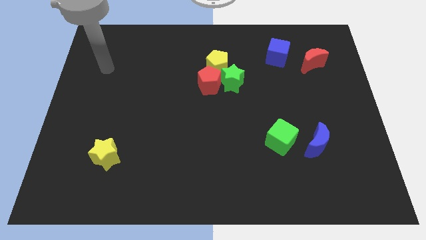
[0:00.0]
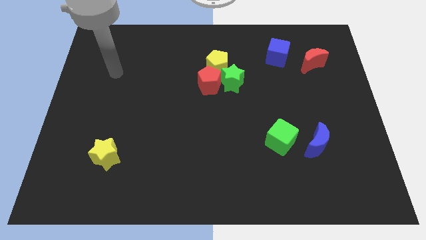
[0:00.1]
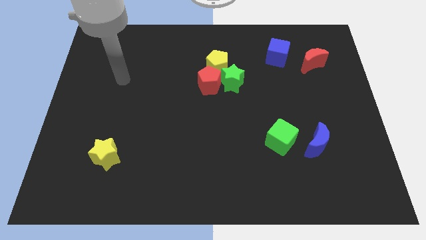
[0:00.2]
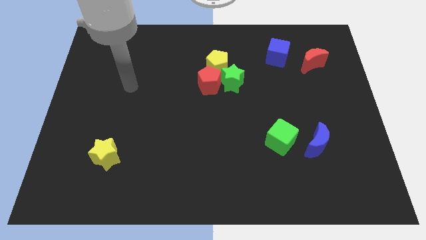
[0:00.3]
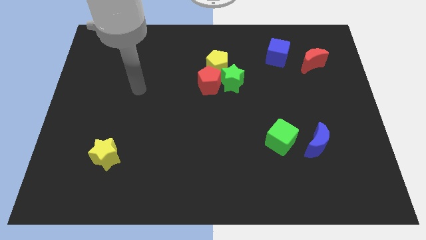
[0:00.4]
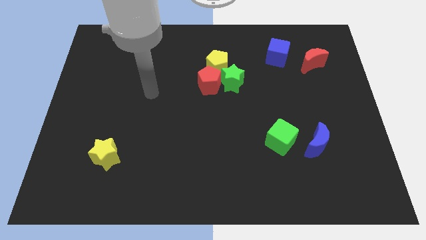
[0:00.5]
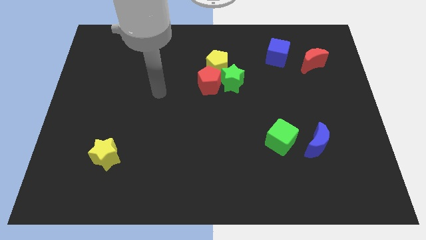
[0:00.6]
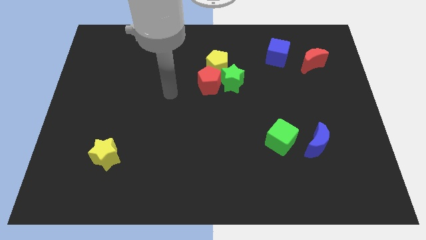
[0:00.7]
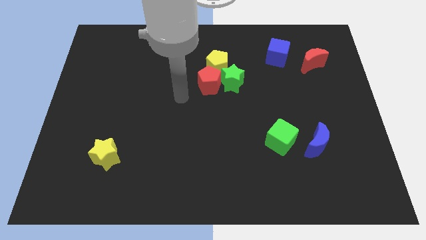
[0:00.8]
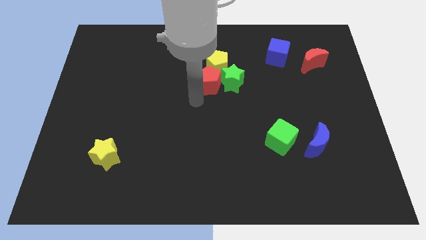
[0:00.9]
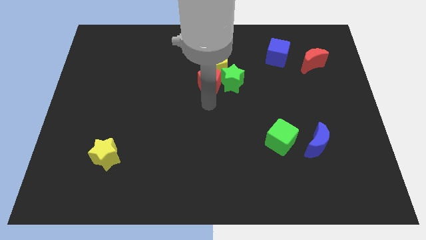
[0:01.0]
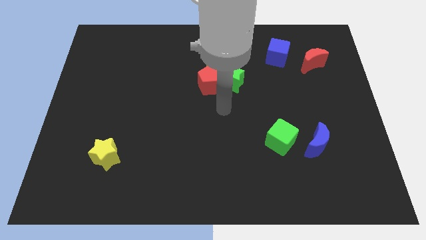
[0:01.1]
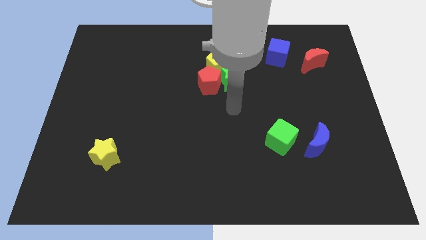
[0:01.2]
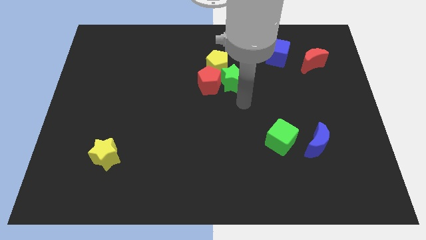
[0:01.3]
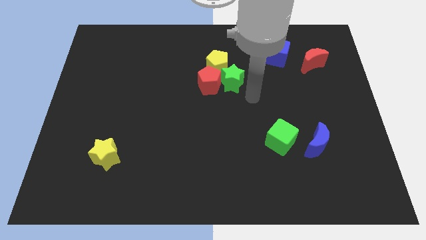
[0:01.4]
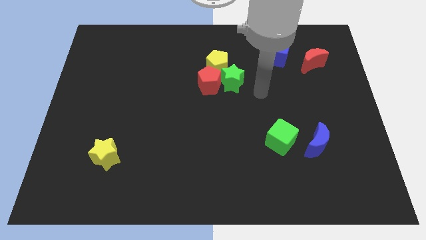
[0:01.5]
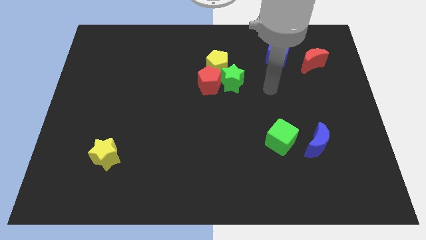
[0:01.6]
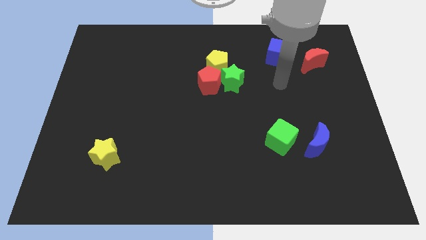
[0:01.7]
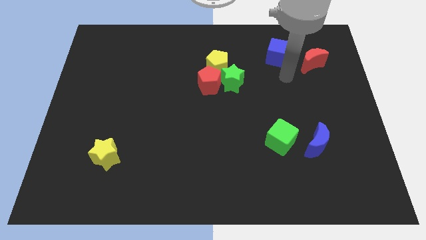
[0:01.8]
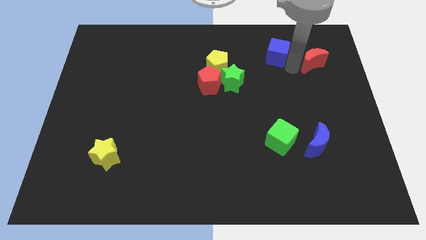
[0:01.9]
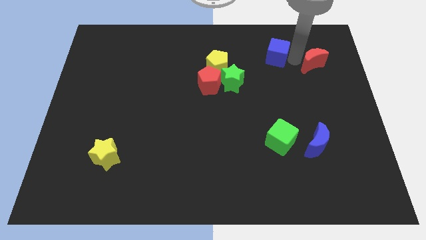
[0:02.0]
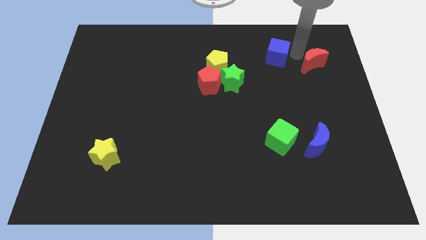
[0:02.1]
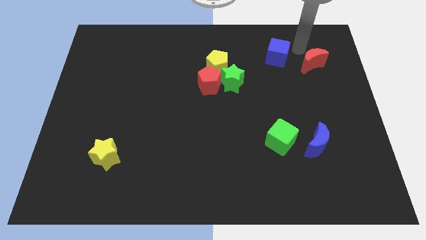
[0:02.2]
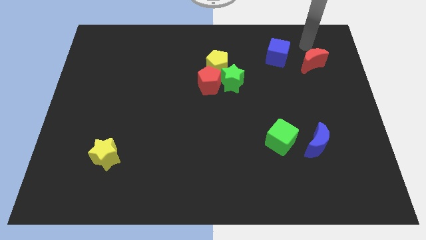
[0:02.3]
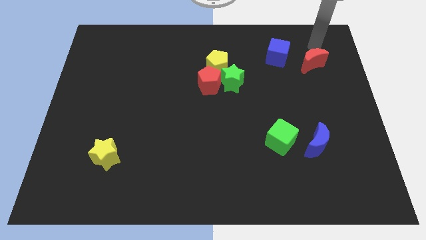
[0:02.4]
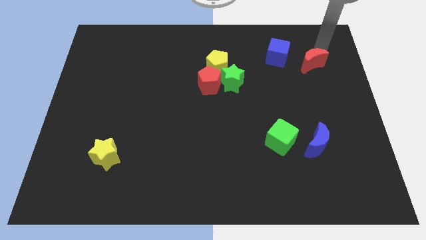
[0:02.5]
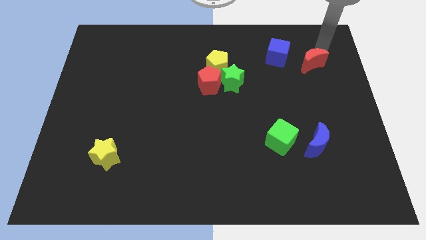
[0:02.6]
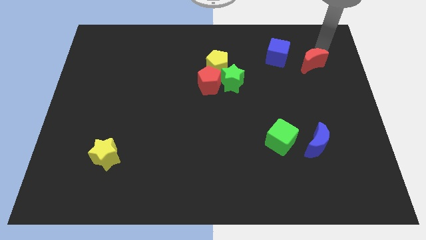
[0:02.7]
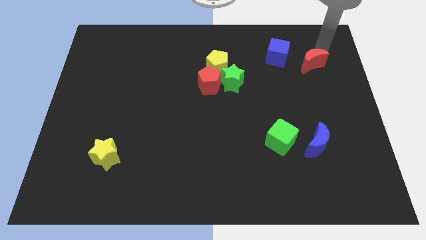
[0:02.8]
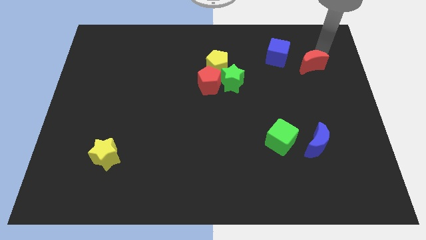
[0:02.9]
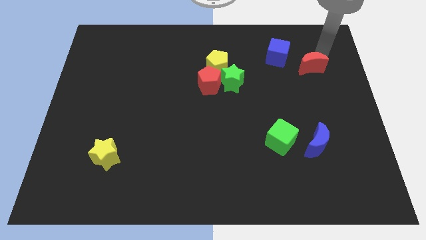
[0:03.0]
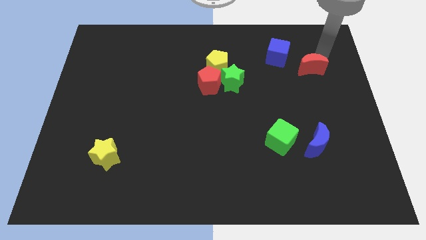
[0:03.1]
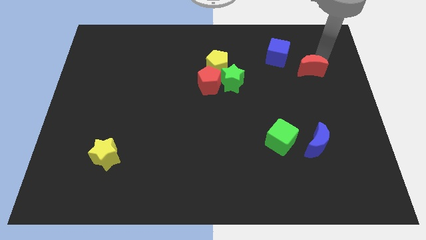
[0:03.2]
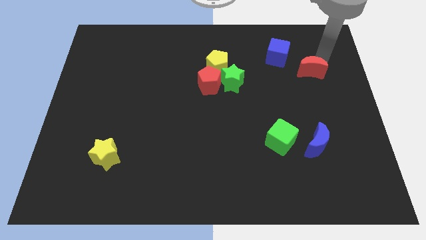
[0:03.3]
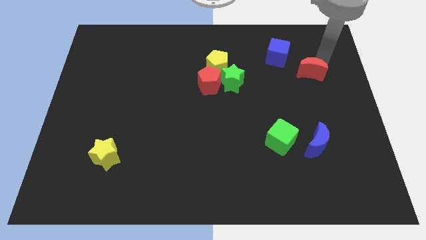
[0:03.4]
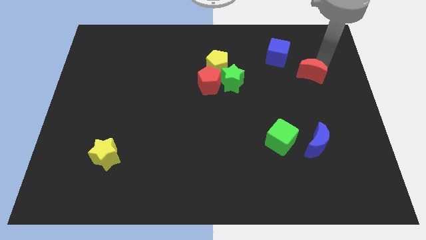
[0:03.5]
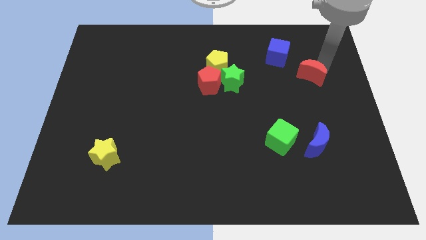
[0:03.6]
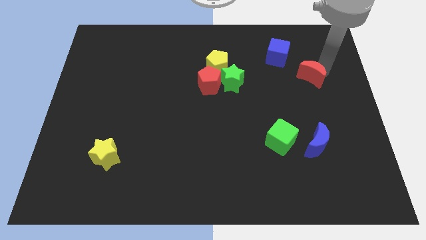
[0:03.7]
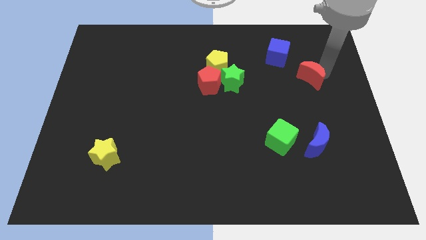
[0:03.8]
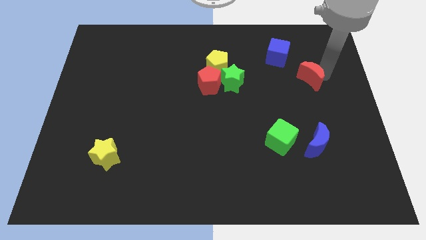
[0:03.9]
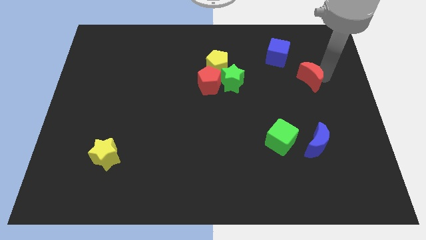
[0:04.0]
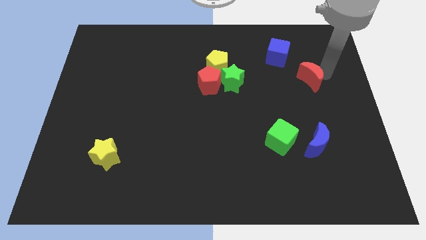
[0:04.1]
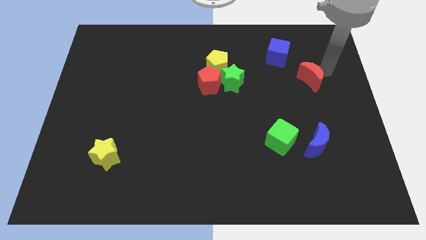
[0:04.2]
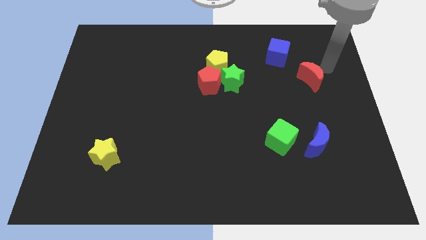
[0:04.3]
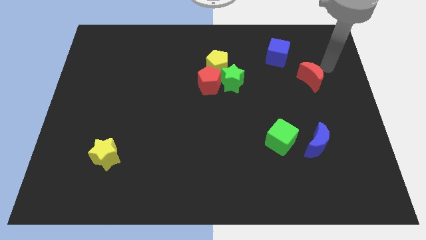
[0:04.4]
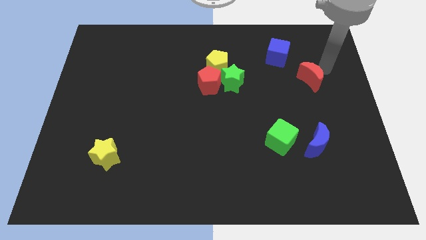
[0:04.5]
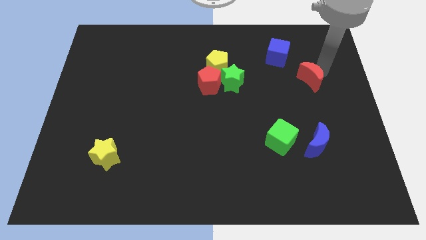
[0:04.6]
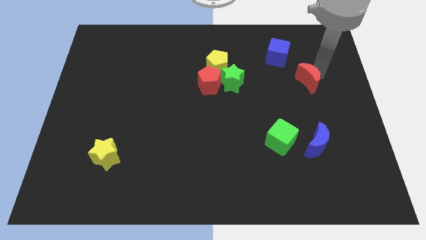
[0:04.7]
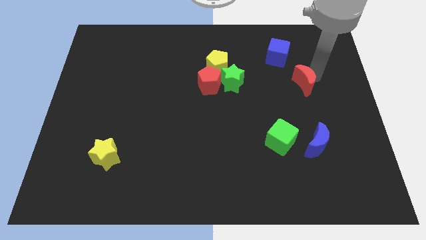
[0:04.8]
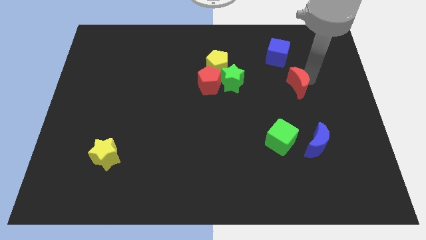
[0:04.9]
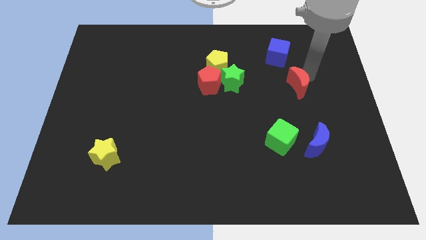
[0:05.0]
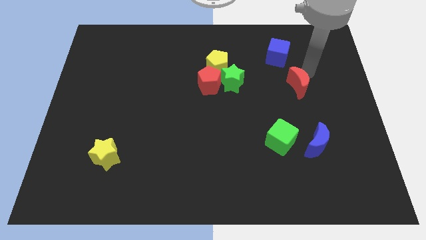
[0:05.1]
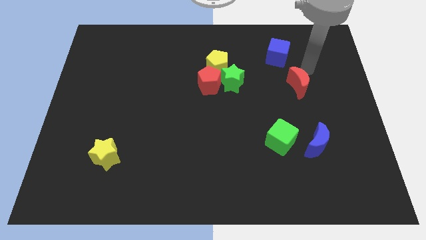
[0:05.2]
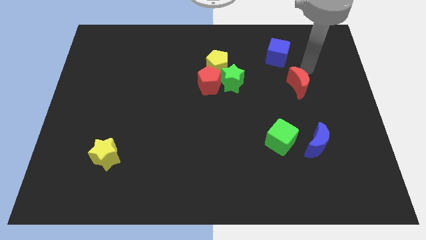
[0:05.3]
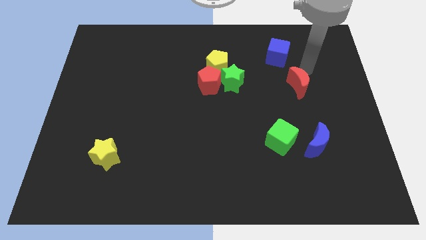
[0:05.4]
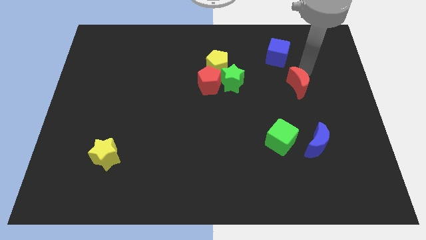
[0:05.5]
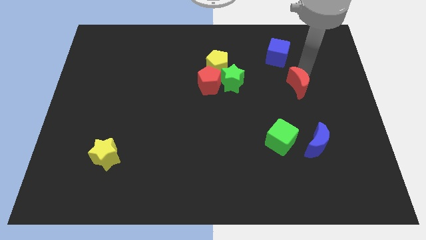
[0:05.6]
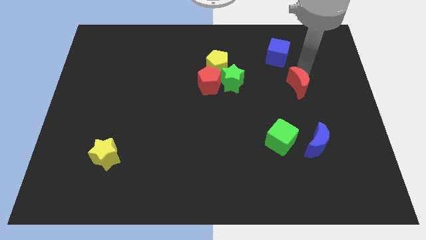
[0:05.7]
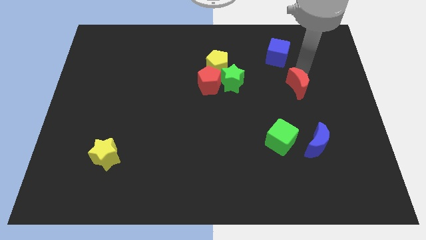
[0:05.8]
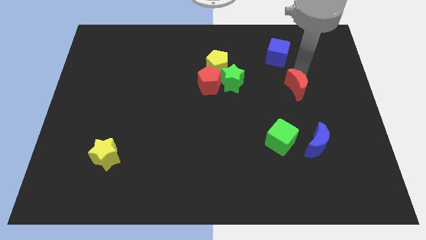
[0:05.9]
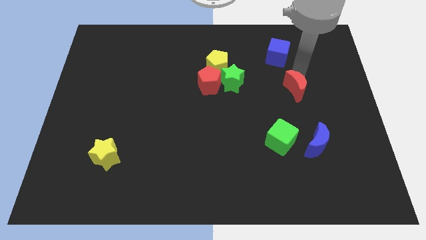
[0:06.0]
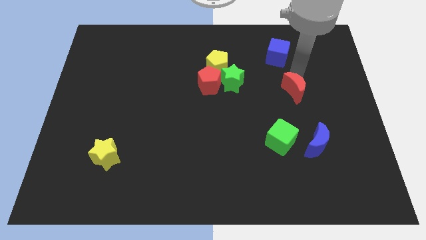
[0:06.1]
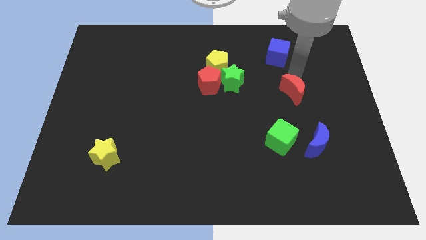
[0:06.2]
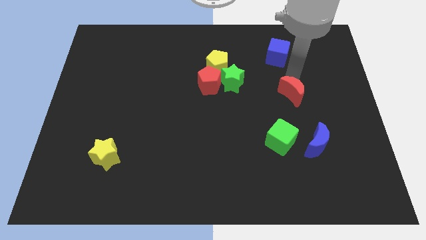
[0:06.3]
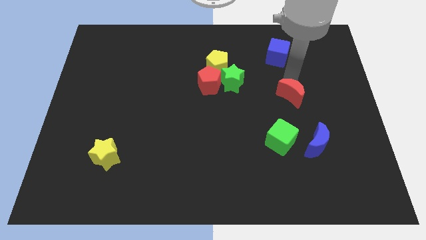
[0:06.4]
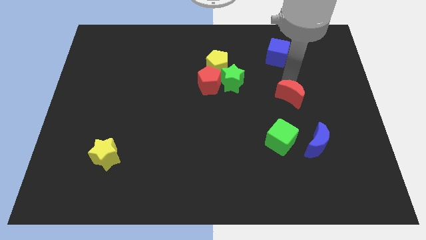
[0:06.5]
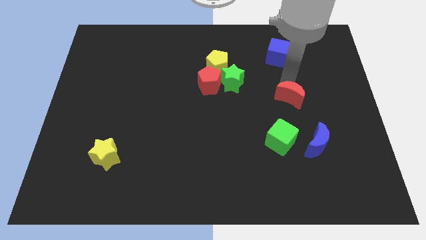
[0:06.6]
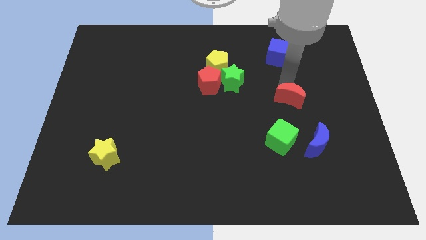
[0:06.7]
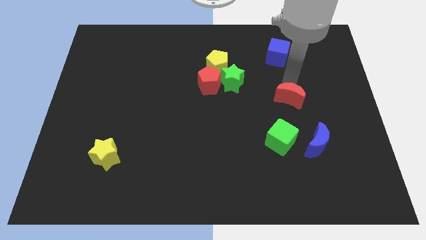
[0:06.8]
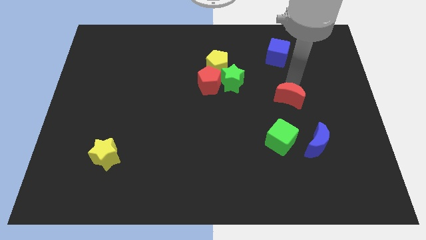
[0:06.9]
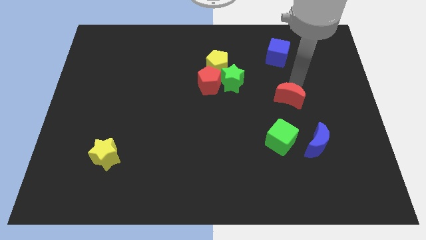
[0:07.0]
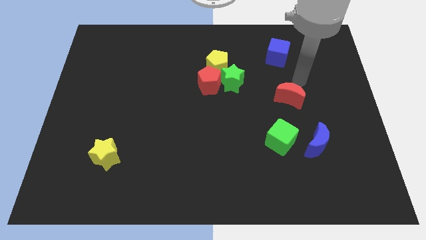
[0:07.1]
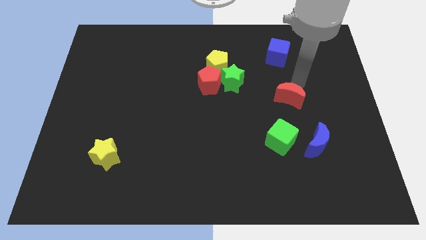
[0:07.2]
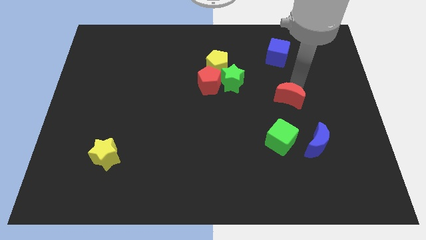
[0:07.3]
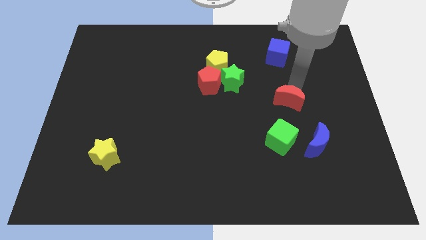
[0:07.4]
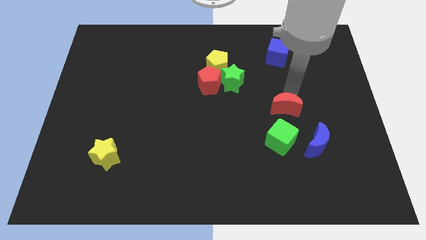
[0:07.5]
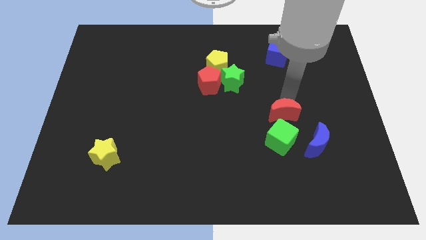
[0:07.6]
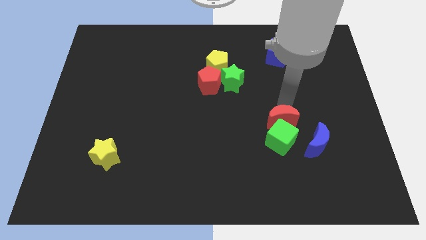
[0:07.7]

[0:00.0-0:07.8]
push the red moon towards the green cube
